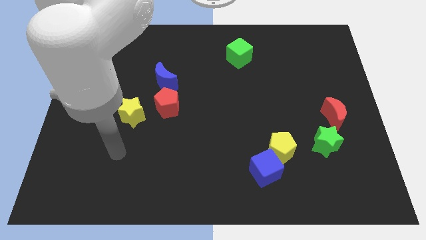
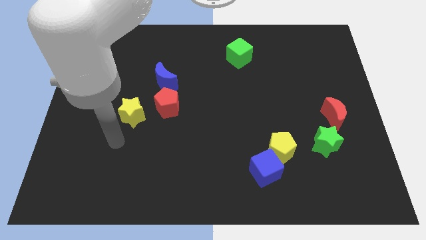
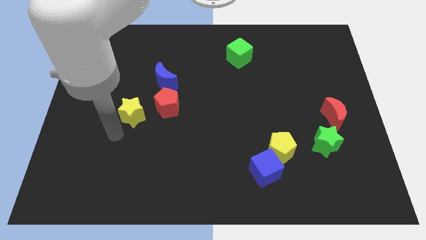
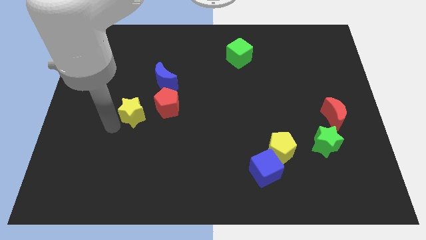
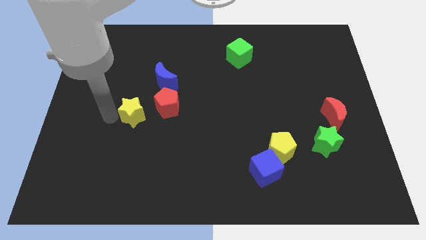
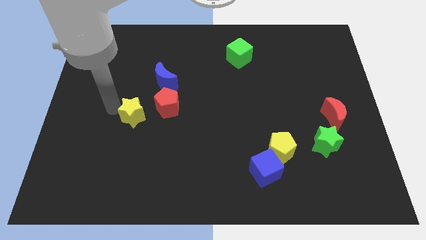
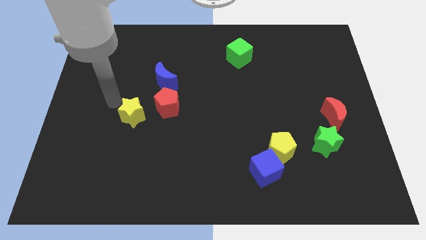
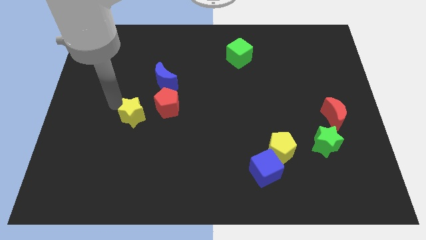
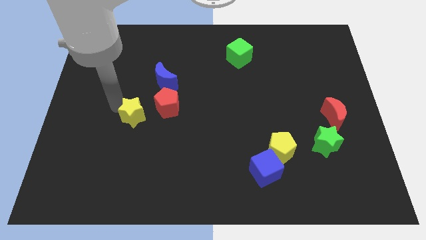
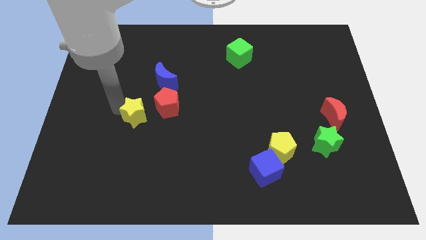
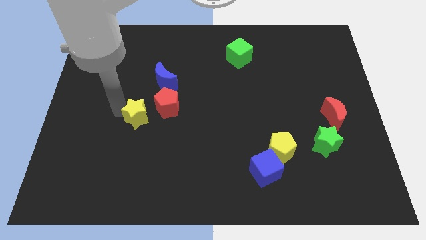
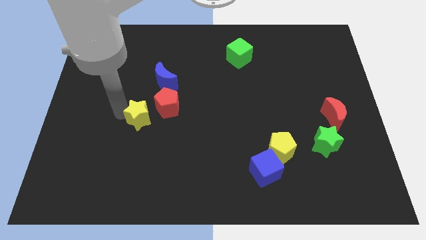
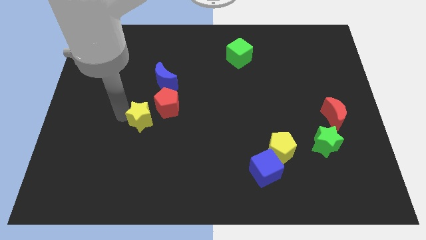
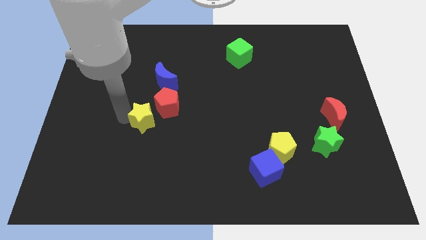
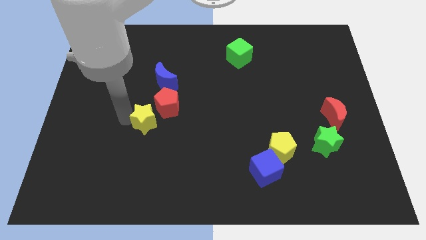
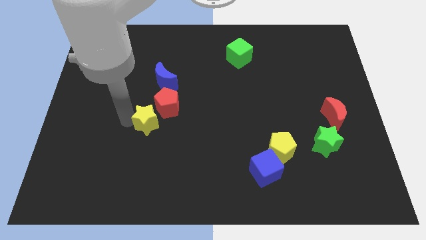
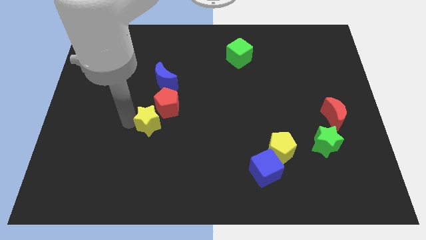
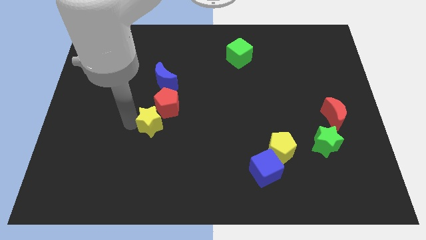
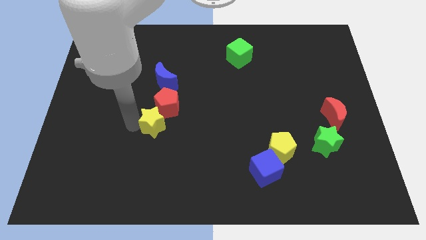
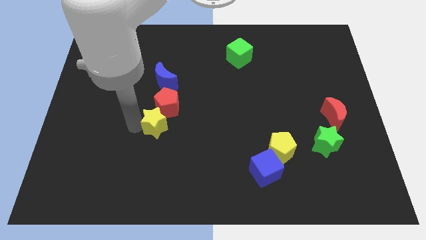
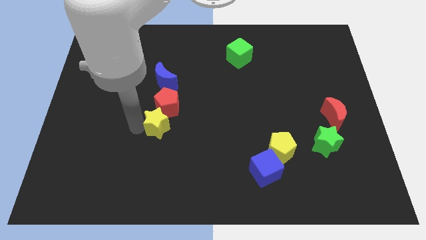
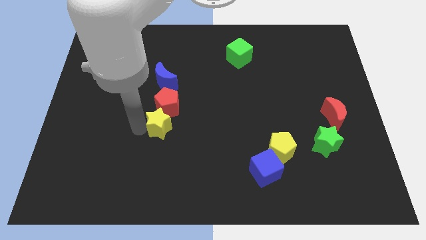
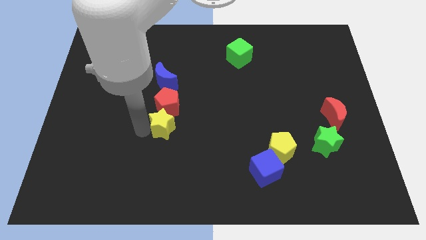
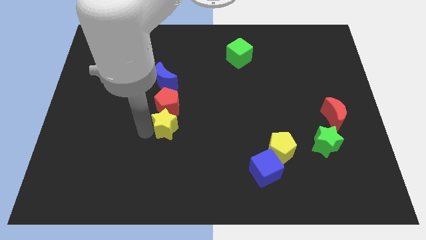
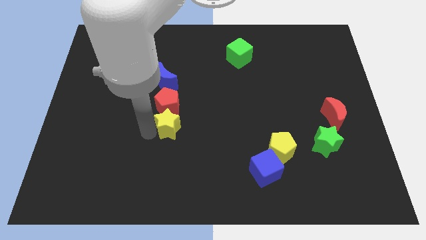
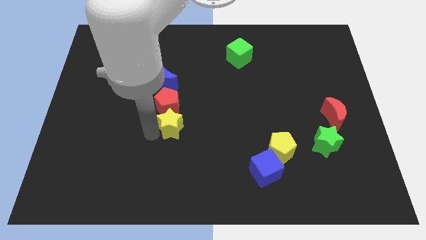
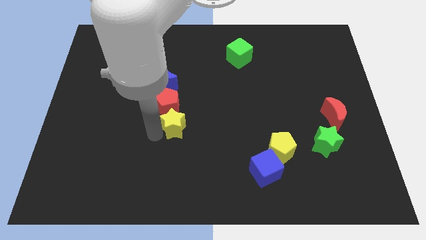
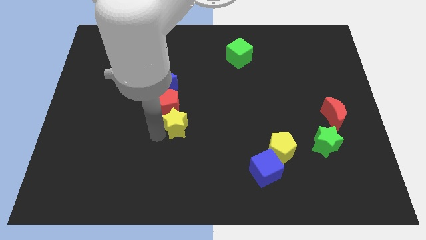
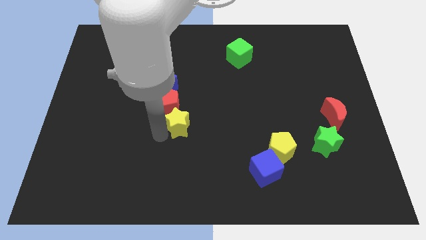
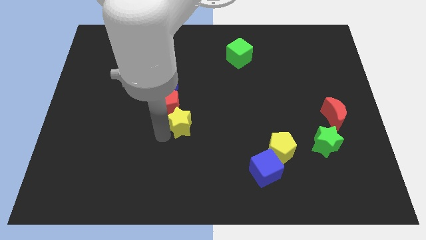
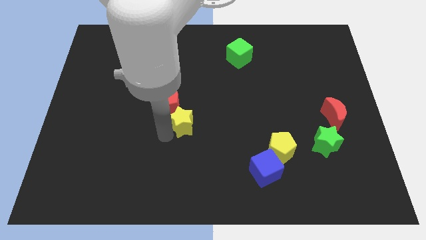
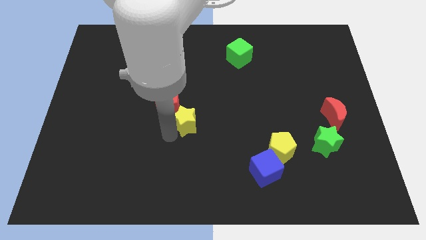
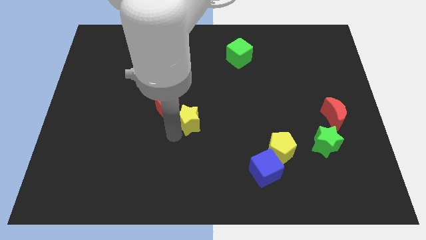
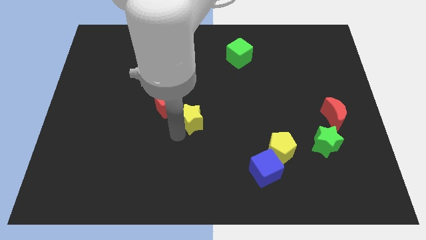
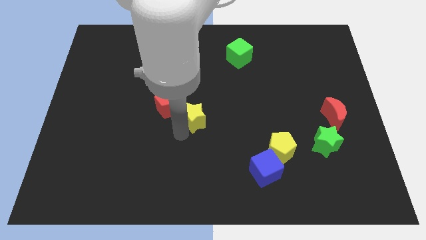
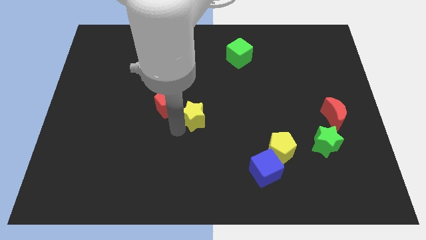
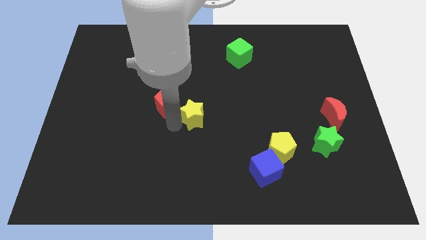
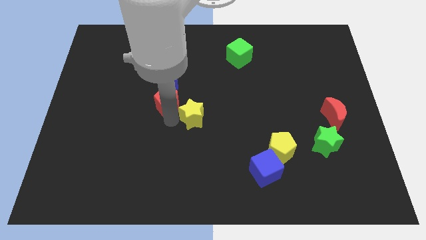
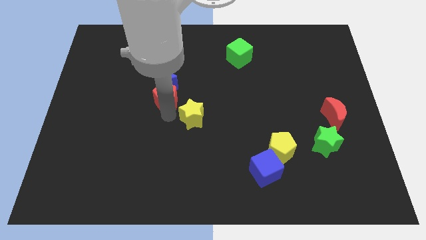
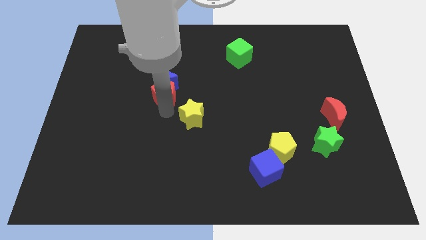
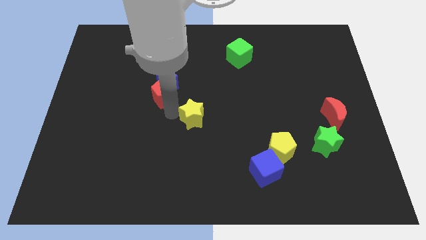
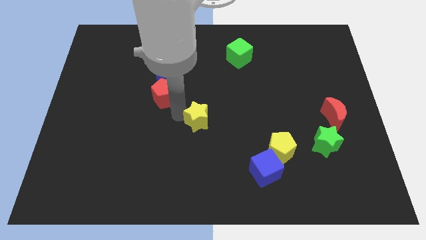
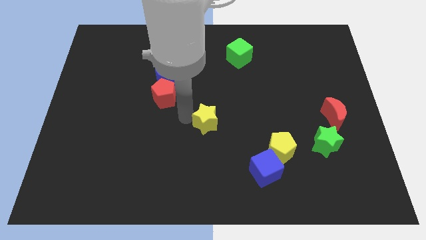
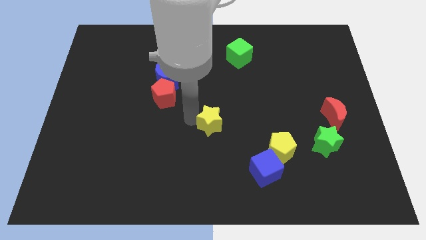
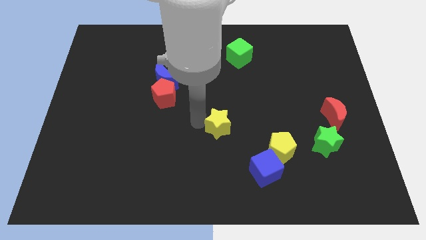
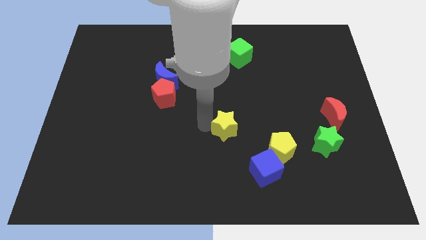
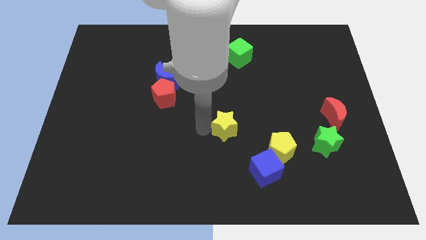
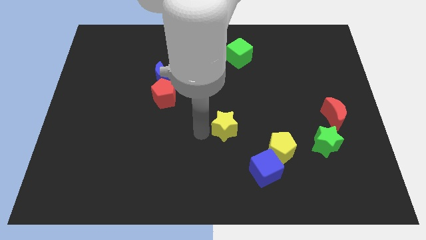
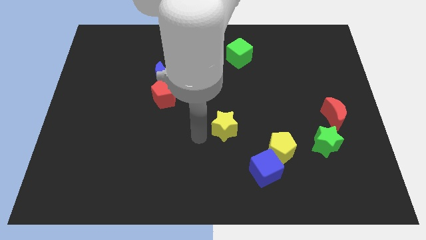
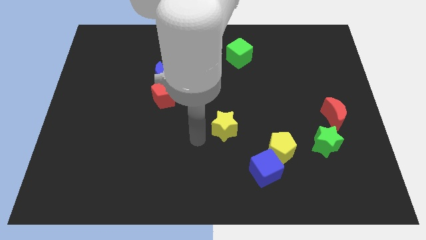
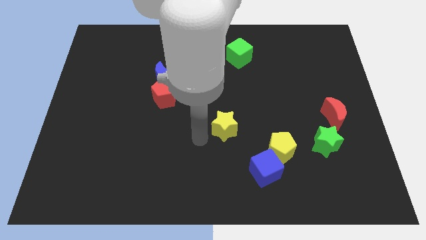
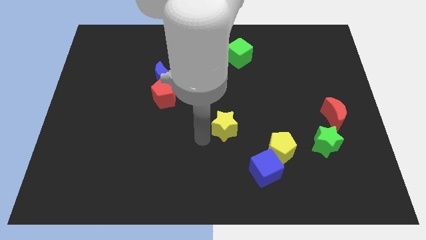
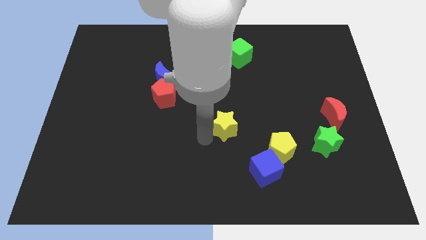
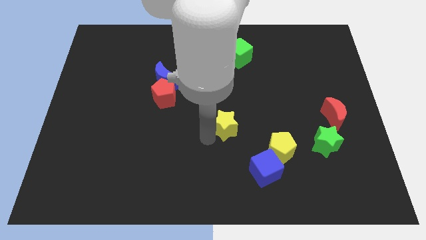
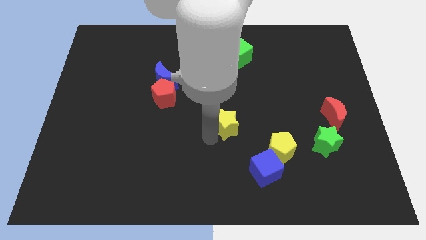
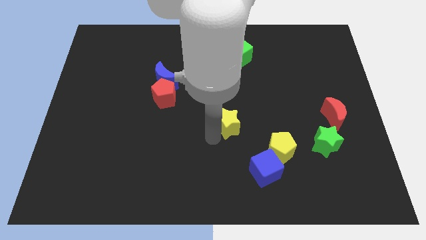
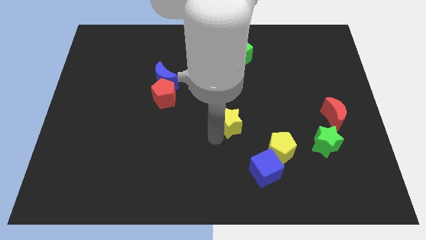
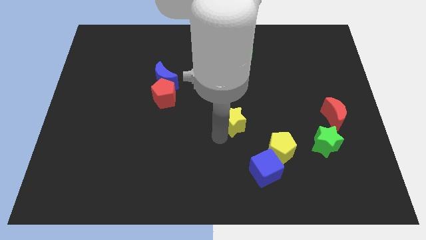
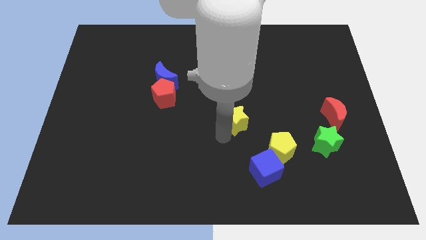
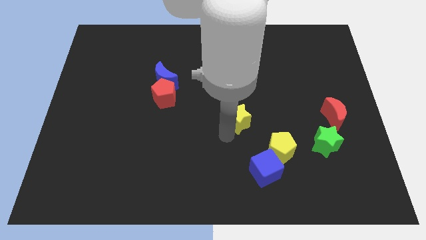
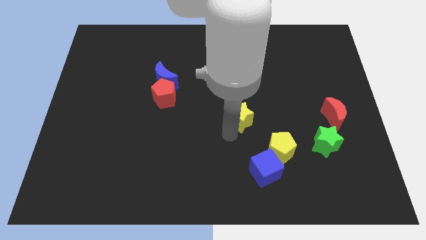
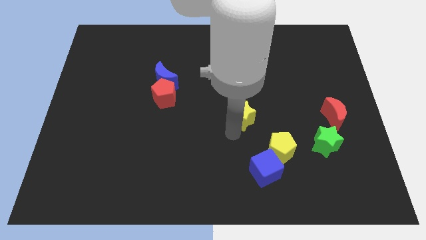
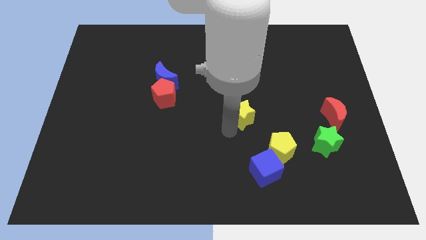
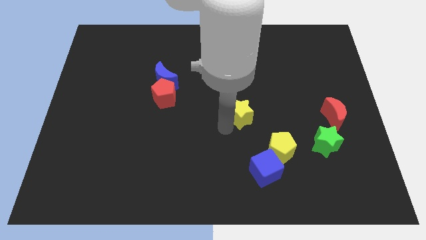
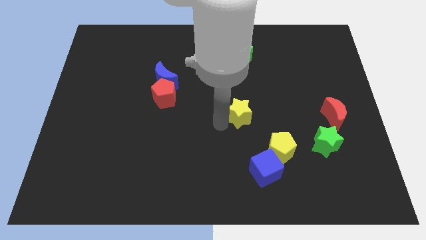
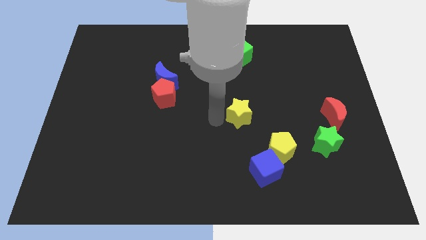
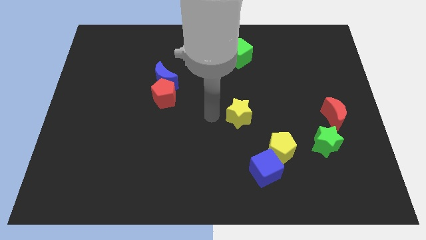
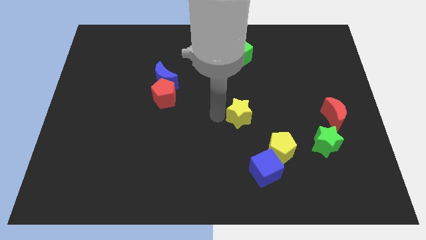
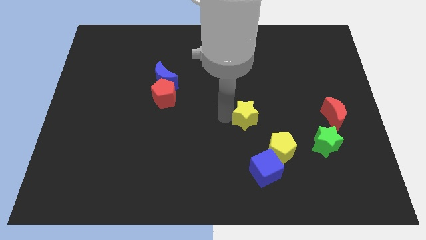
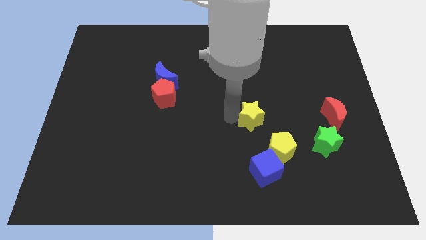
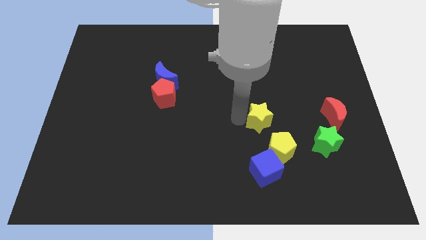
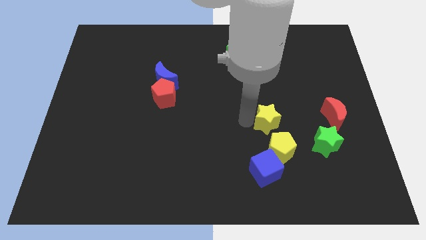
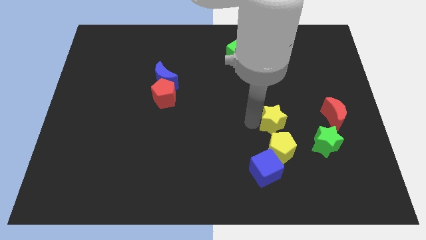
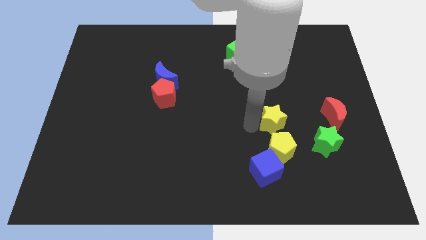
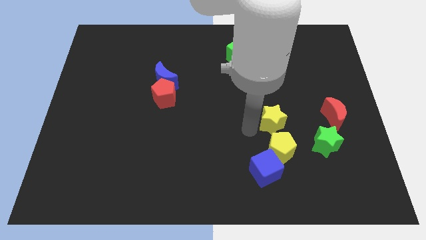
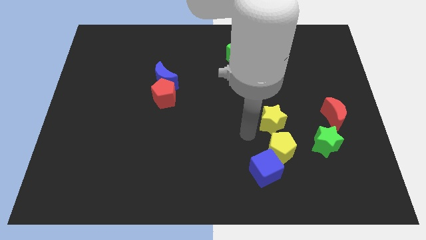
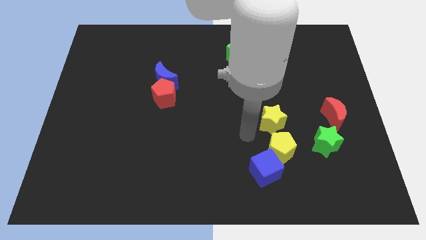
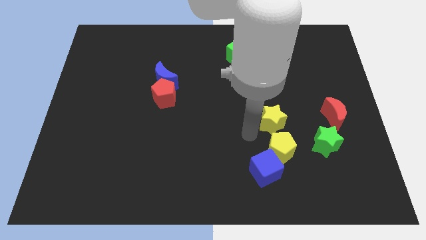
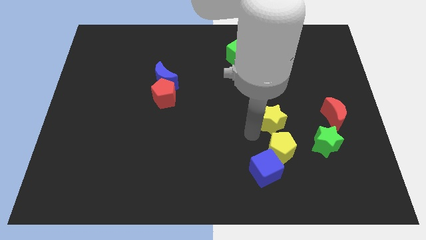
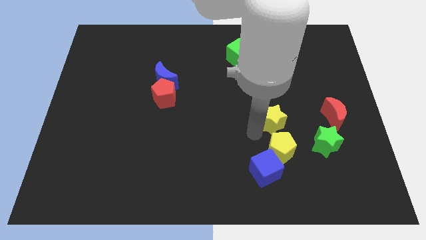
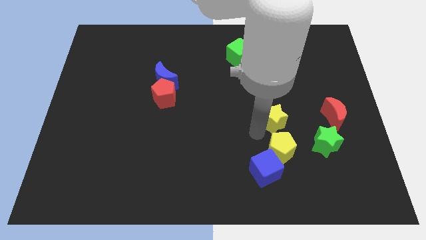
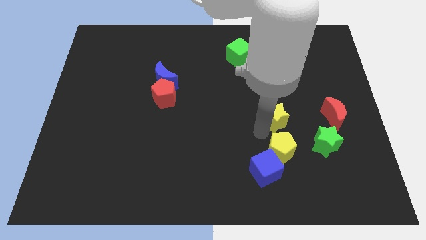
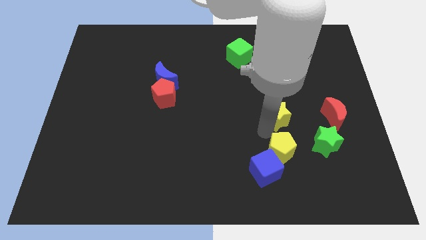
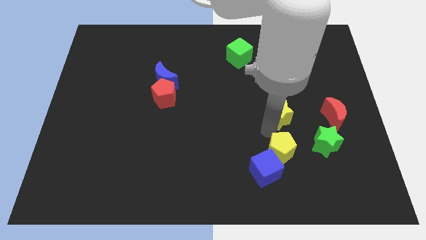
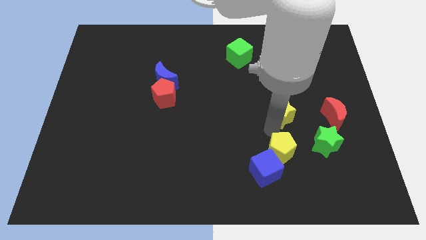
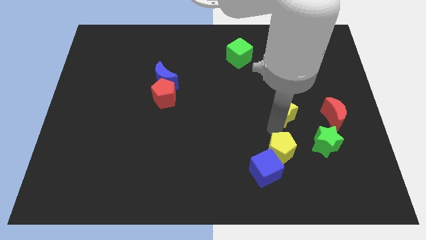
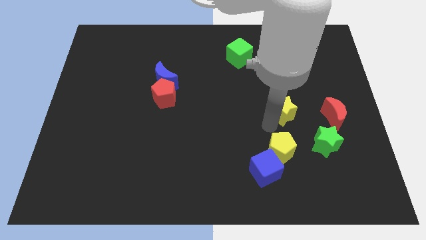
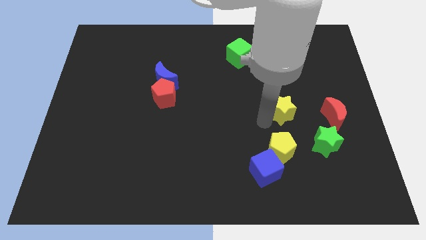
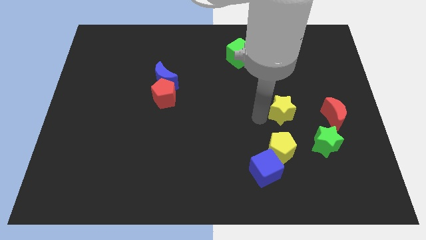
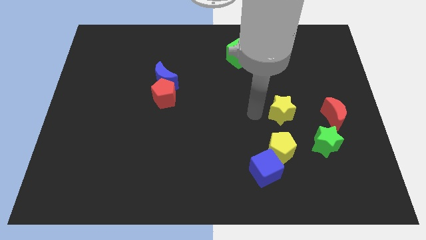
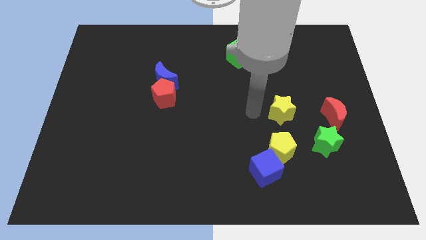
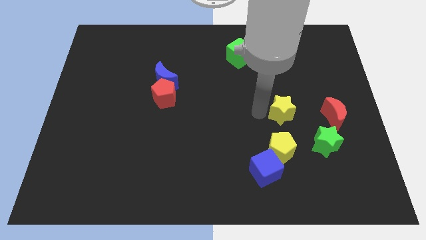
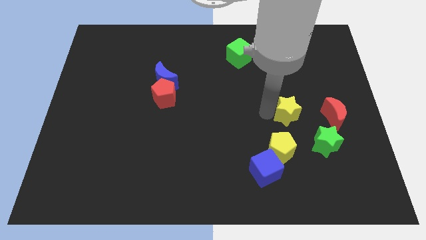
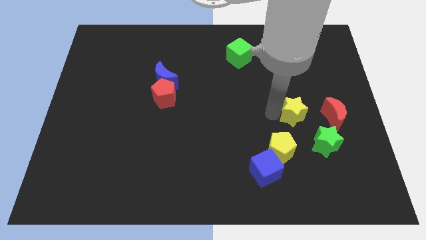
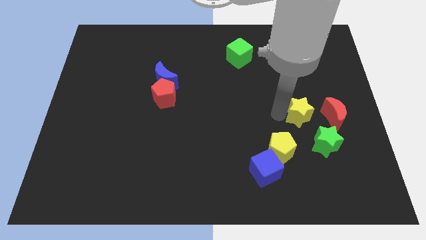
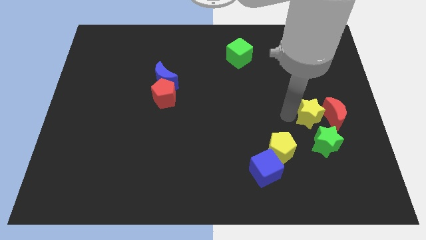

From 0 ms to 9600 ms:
move the yellow star to the red moon
